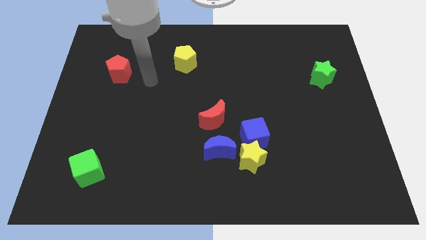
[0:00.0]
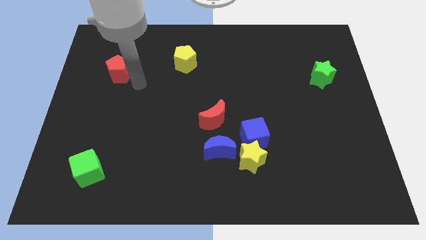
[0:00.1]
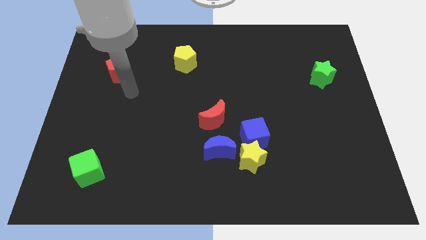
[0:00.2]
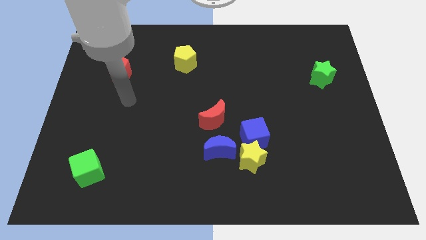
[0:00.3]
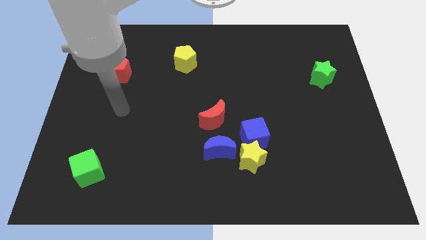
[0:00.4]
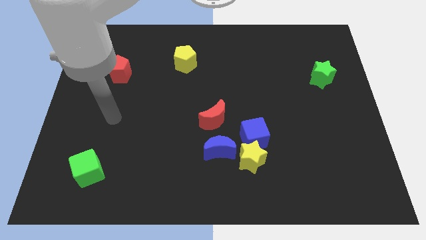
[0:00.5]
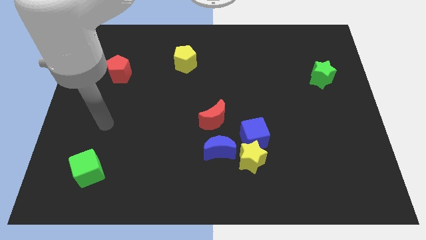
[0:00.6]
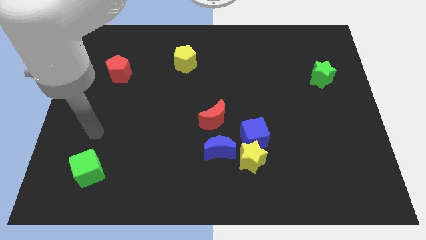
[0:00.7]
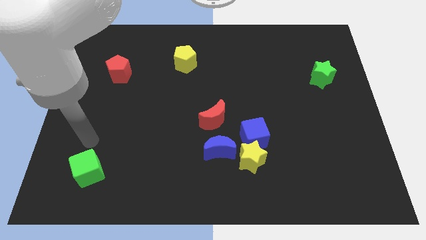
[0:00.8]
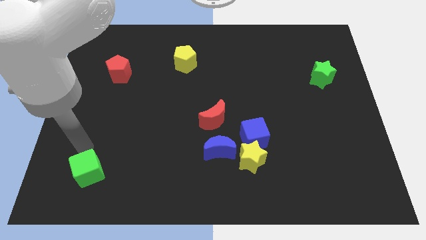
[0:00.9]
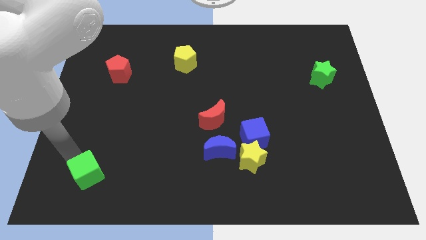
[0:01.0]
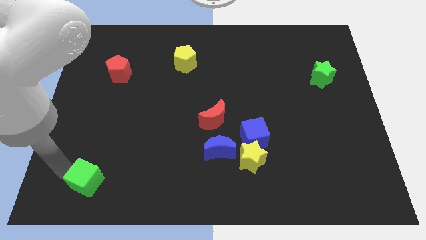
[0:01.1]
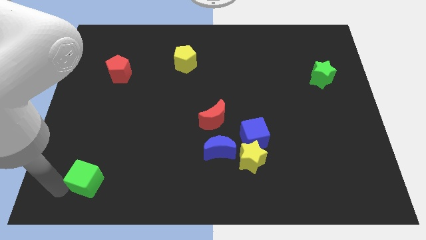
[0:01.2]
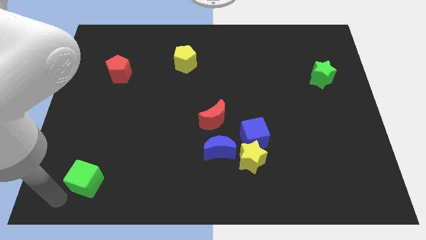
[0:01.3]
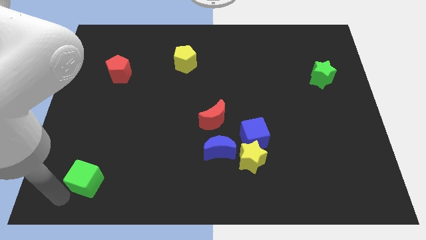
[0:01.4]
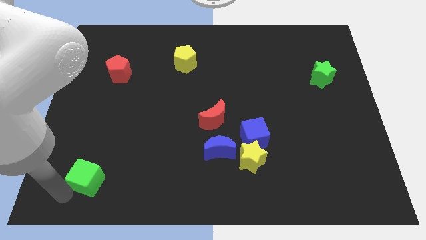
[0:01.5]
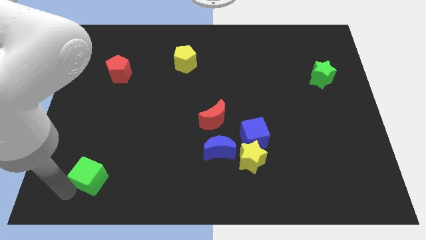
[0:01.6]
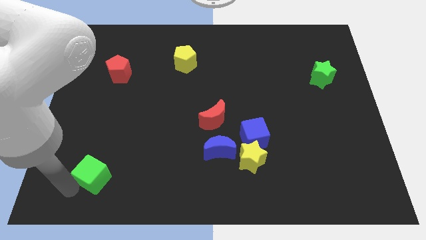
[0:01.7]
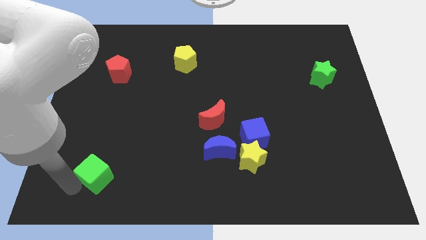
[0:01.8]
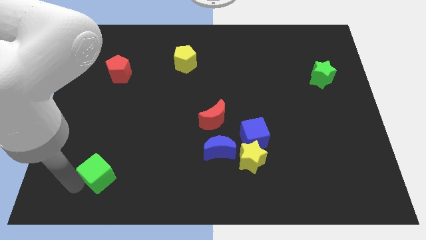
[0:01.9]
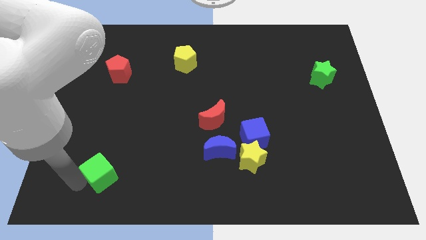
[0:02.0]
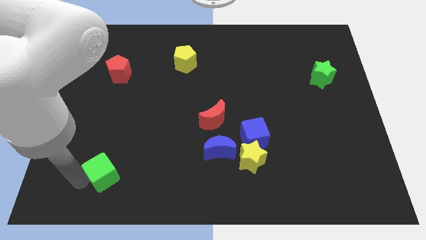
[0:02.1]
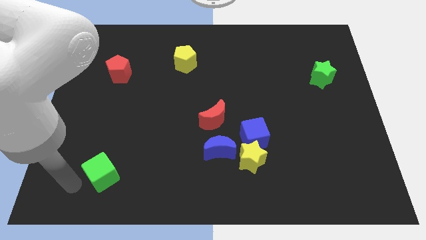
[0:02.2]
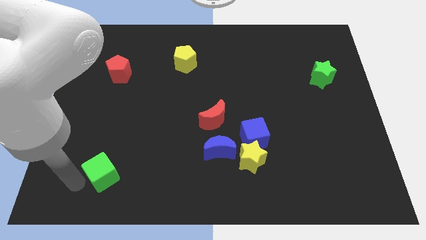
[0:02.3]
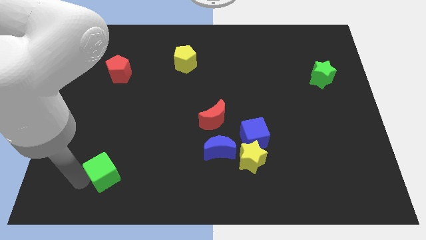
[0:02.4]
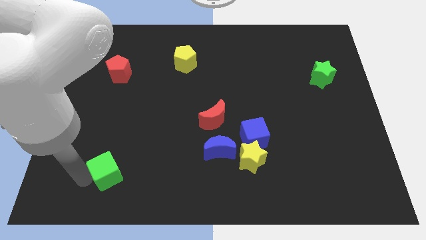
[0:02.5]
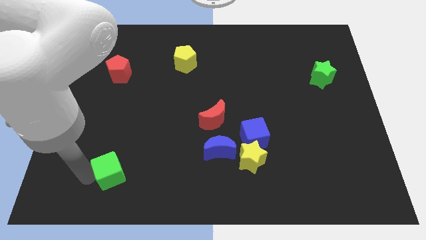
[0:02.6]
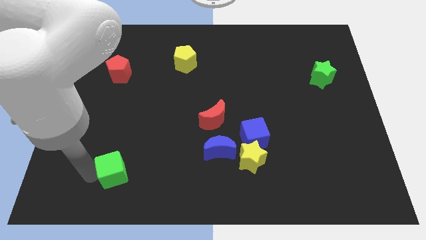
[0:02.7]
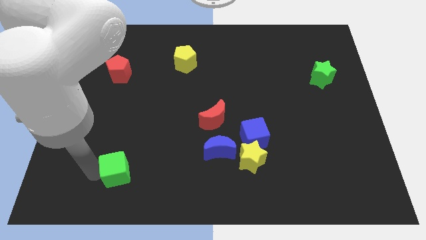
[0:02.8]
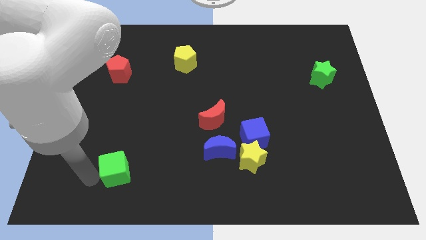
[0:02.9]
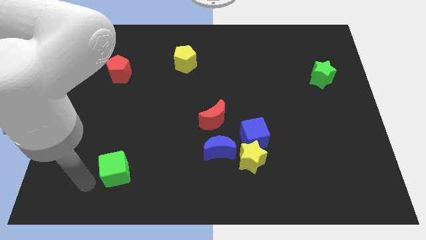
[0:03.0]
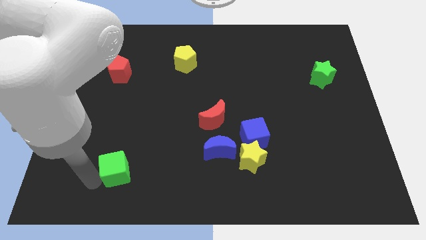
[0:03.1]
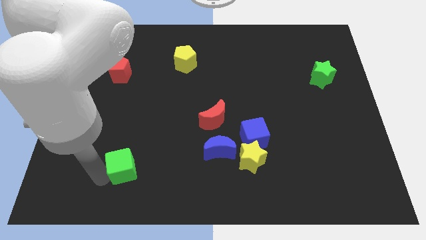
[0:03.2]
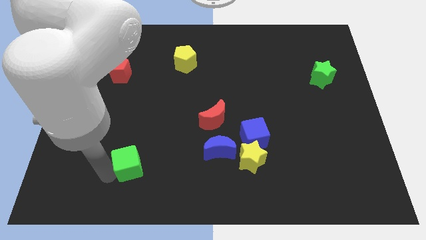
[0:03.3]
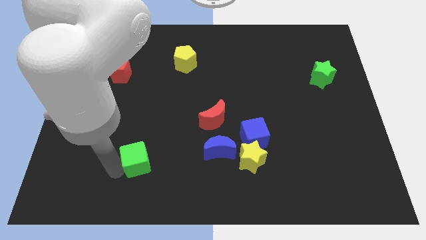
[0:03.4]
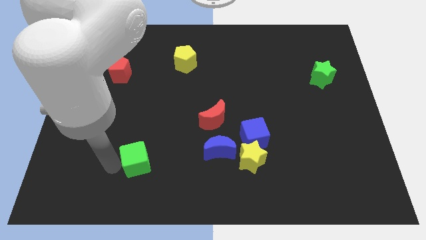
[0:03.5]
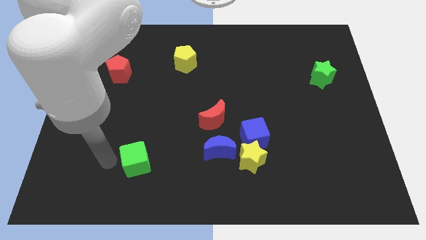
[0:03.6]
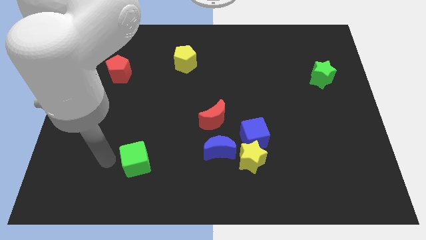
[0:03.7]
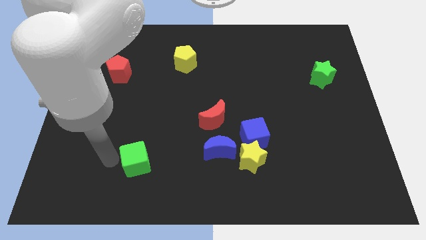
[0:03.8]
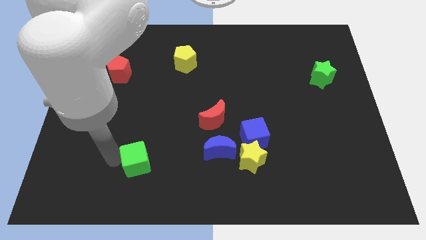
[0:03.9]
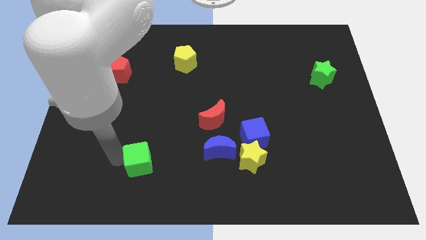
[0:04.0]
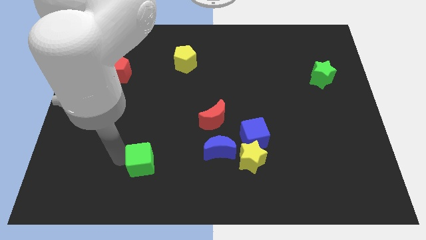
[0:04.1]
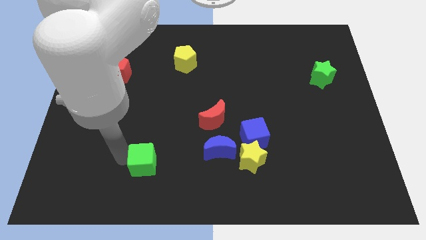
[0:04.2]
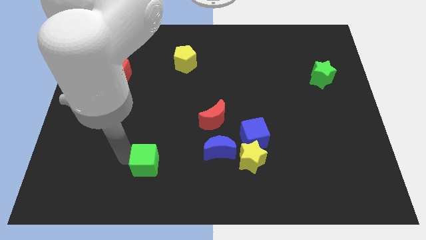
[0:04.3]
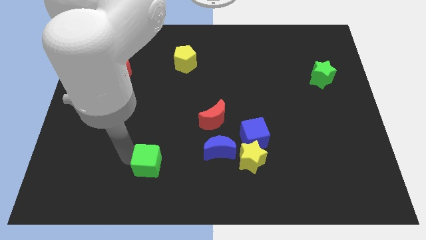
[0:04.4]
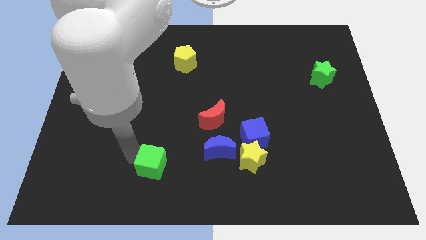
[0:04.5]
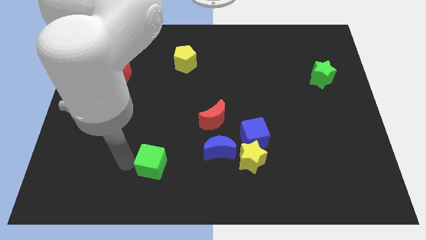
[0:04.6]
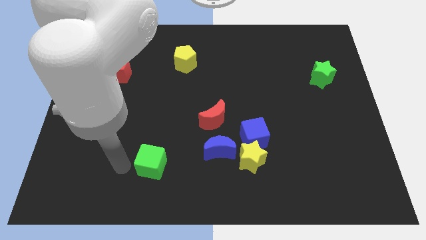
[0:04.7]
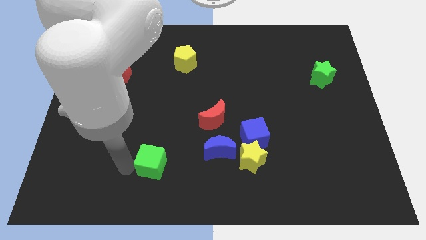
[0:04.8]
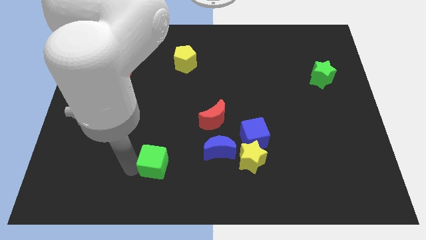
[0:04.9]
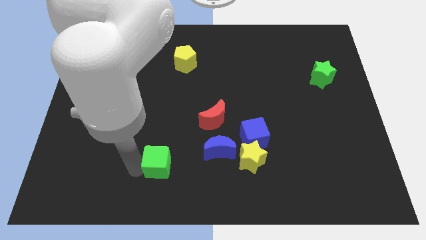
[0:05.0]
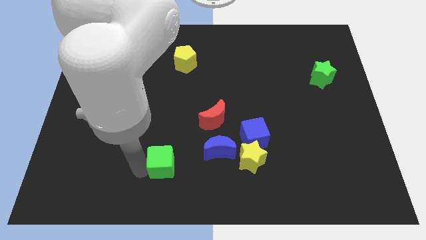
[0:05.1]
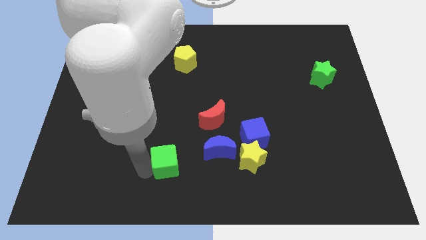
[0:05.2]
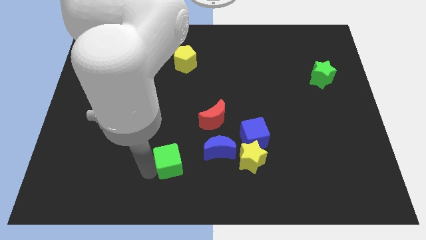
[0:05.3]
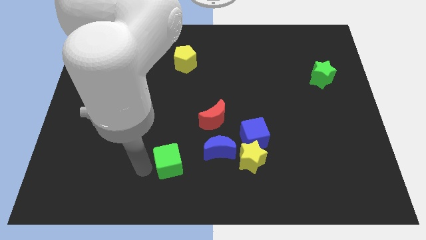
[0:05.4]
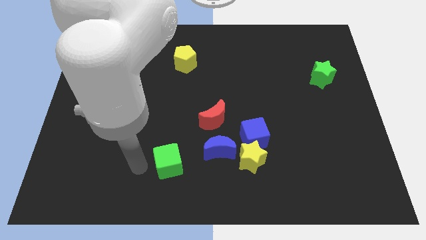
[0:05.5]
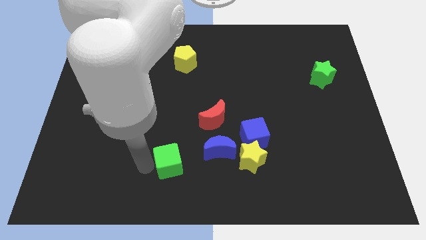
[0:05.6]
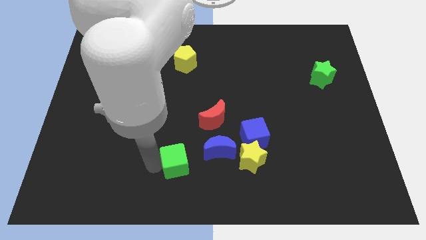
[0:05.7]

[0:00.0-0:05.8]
move the green cube to the left side of the yellow star

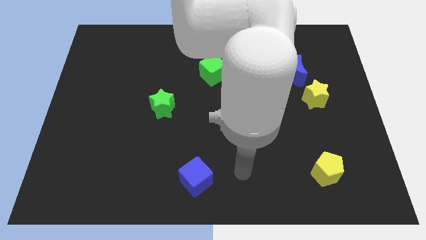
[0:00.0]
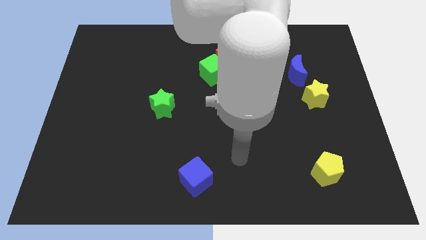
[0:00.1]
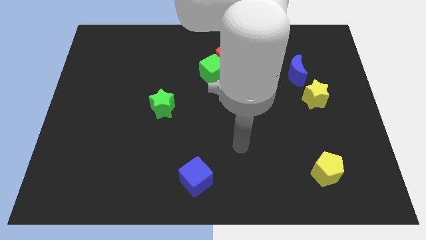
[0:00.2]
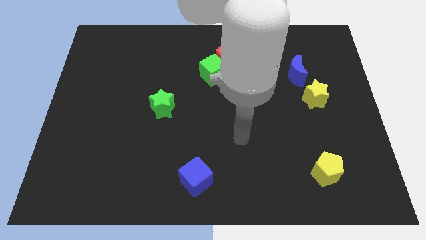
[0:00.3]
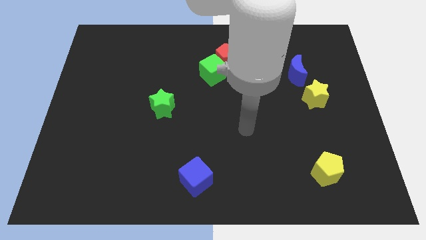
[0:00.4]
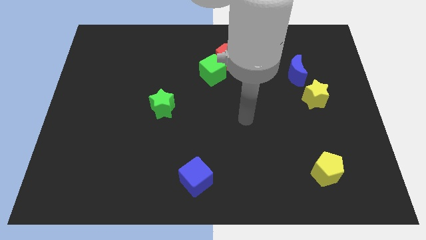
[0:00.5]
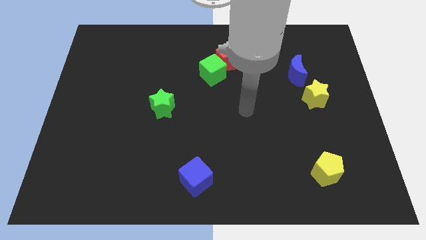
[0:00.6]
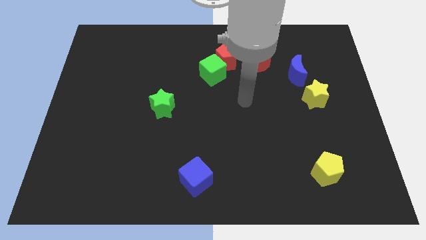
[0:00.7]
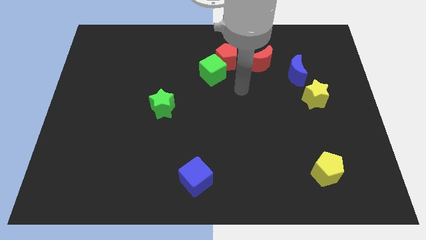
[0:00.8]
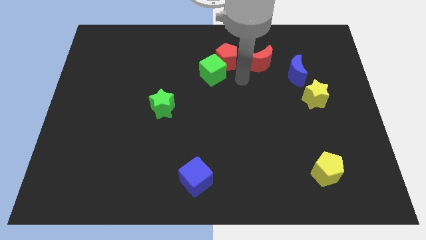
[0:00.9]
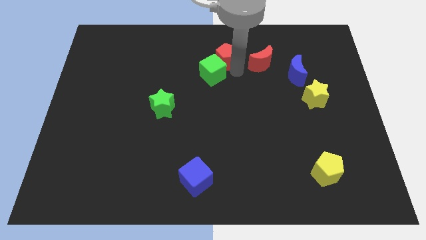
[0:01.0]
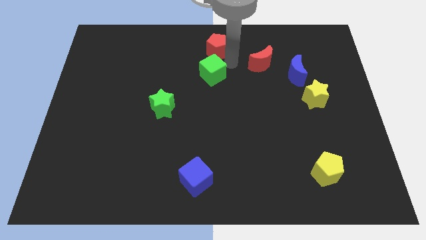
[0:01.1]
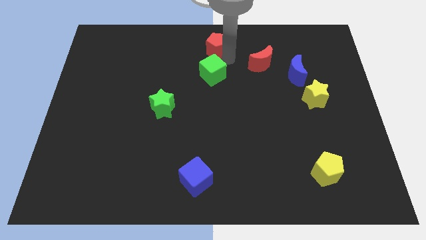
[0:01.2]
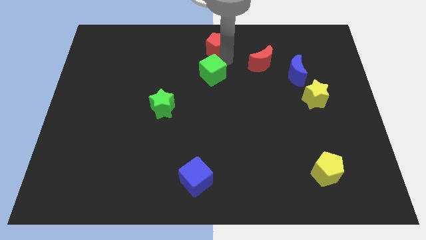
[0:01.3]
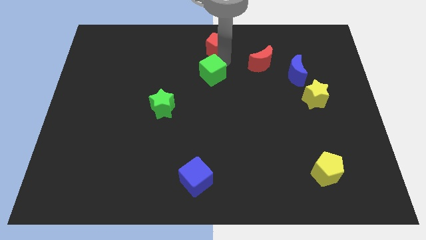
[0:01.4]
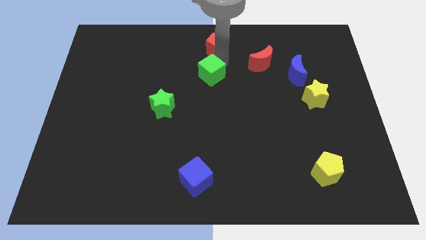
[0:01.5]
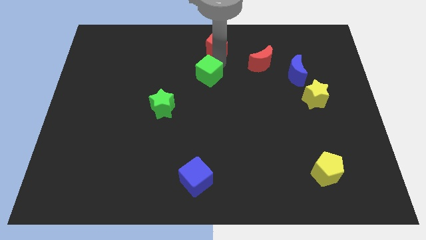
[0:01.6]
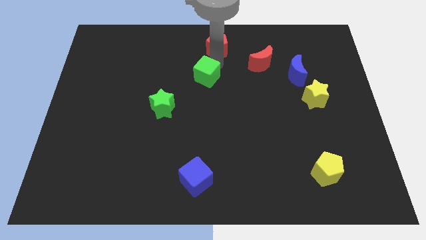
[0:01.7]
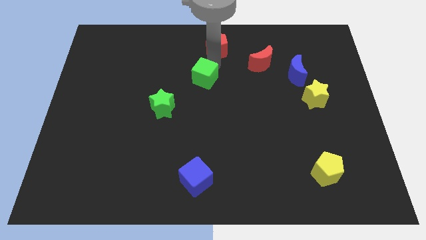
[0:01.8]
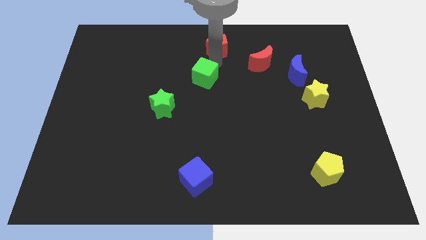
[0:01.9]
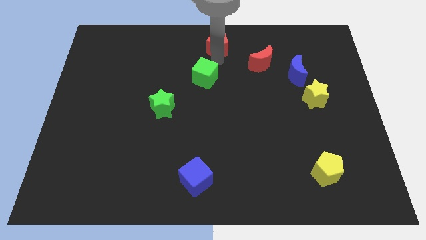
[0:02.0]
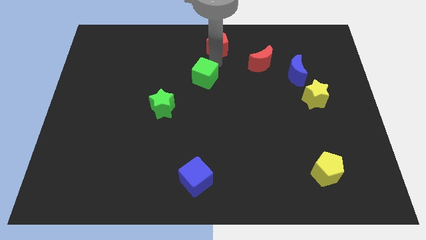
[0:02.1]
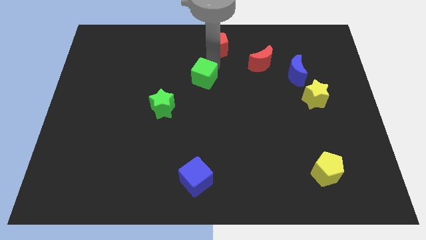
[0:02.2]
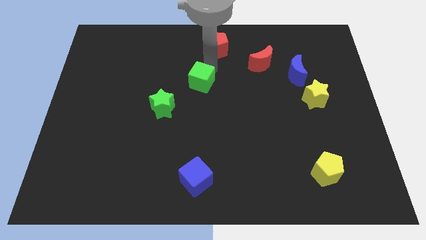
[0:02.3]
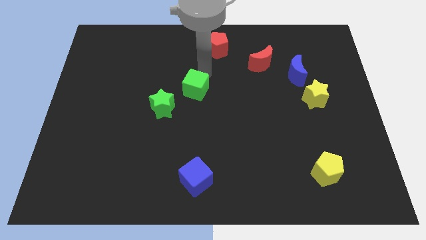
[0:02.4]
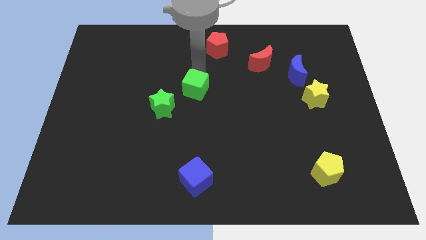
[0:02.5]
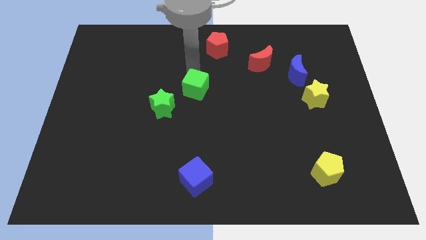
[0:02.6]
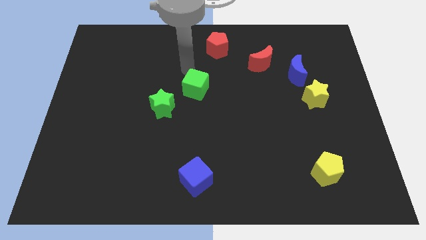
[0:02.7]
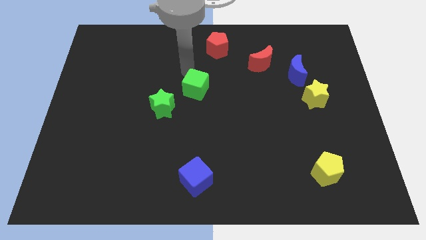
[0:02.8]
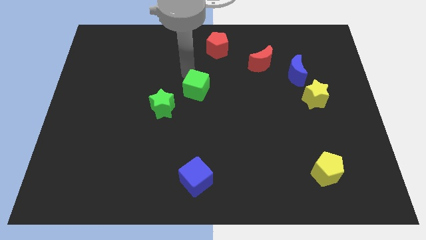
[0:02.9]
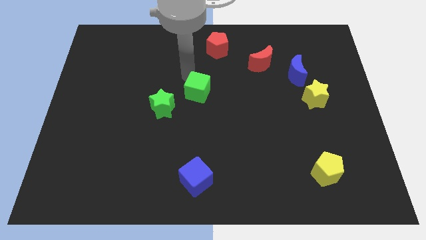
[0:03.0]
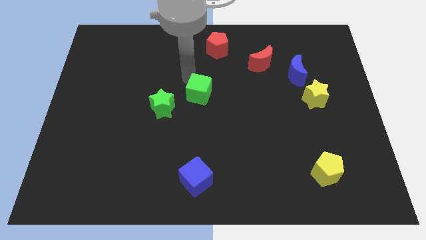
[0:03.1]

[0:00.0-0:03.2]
move the green cube to the right side of the green star
